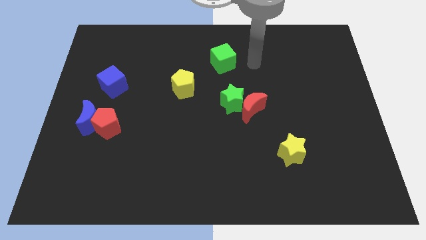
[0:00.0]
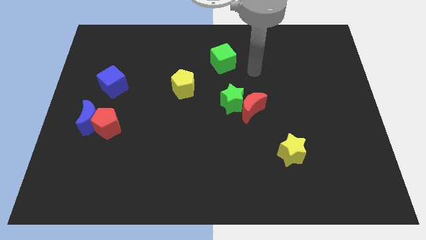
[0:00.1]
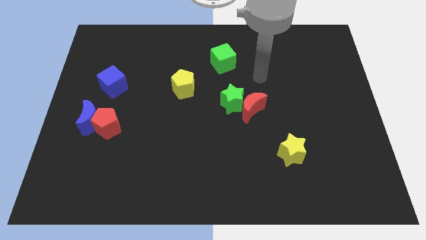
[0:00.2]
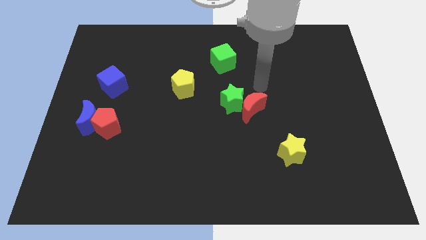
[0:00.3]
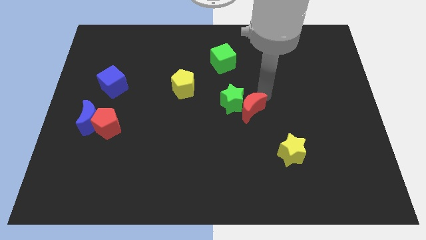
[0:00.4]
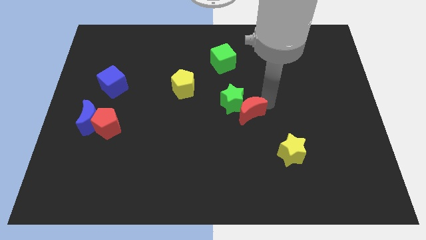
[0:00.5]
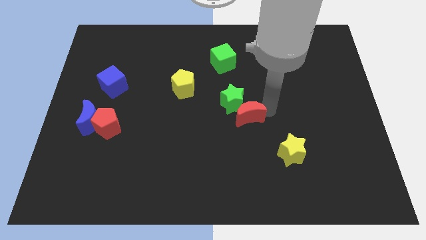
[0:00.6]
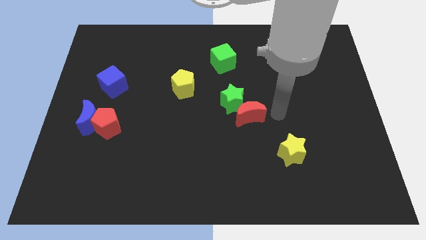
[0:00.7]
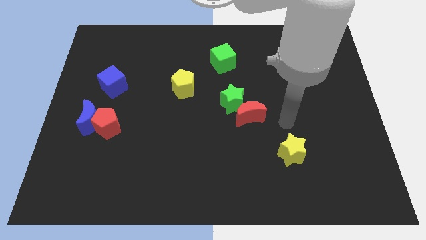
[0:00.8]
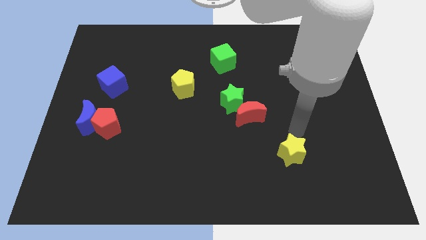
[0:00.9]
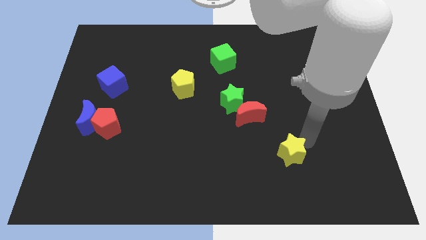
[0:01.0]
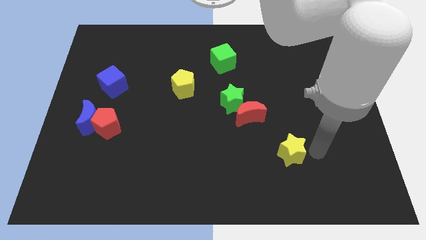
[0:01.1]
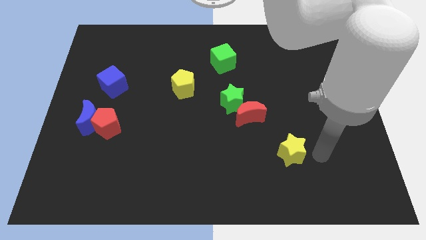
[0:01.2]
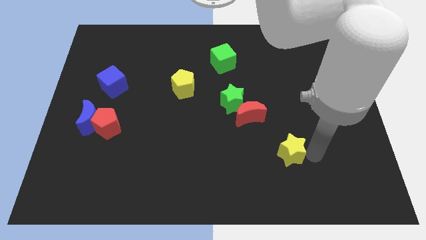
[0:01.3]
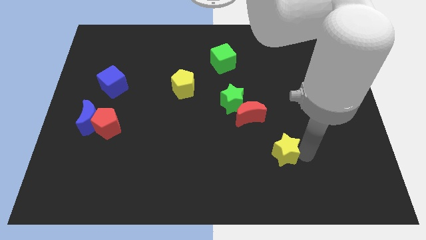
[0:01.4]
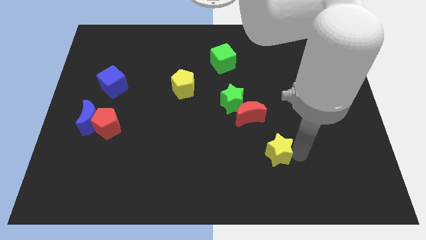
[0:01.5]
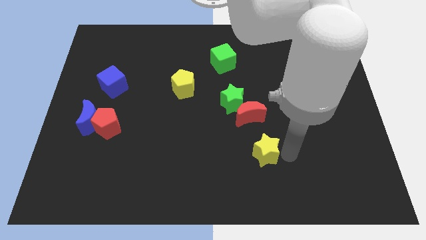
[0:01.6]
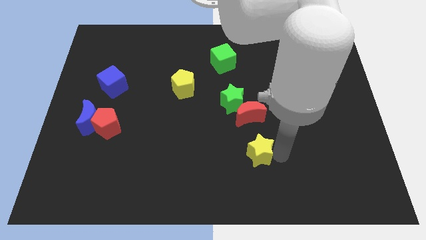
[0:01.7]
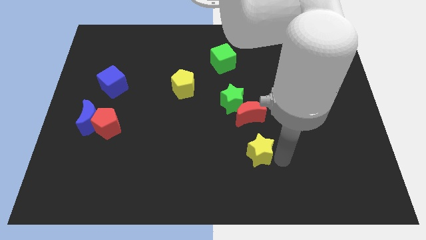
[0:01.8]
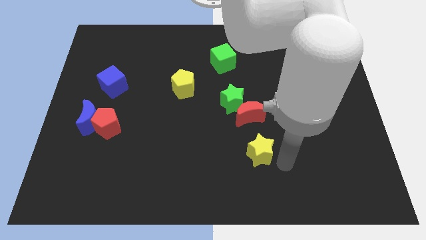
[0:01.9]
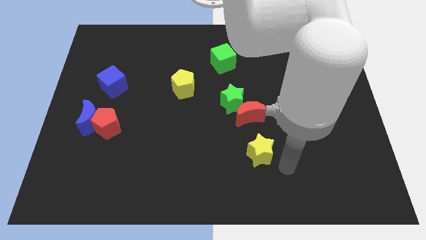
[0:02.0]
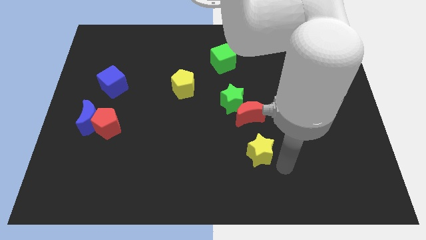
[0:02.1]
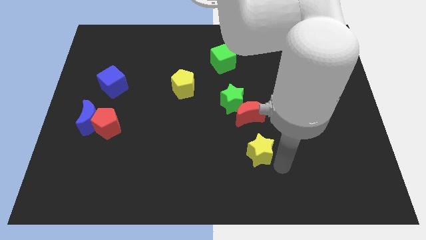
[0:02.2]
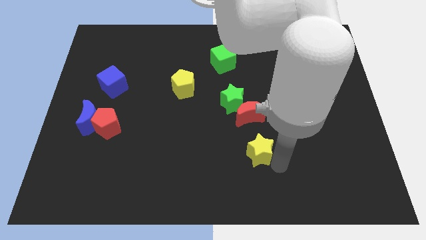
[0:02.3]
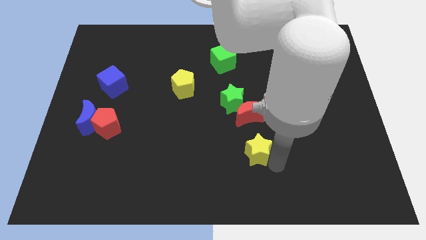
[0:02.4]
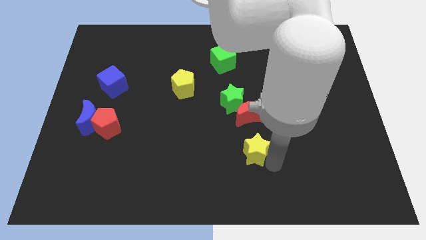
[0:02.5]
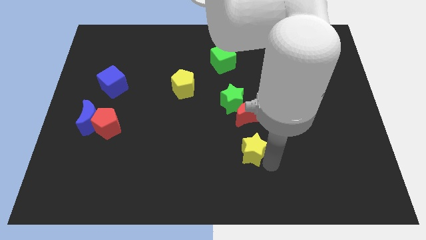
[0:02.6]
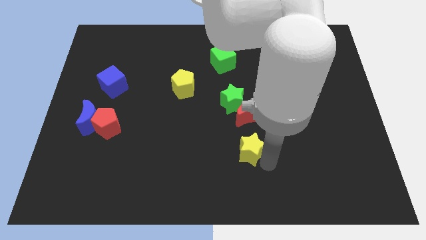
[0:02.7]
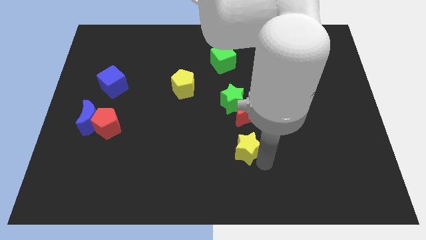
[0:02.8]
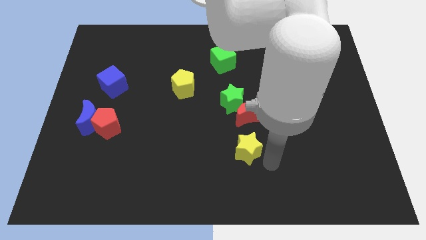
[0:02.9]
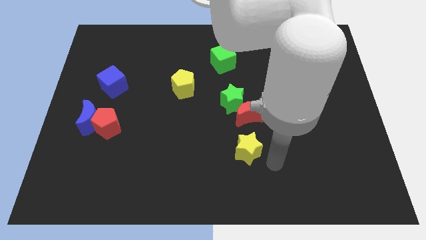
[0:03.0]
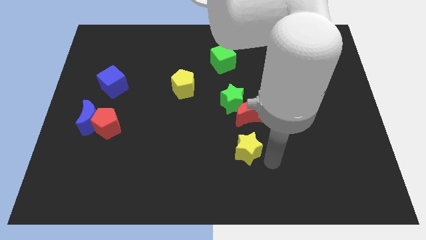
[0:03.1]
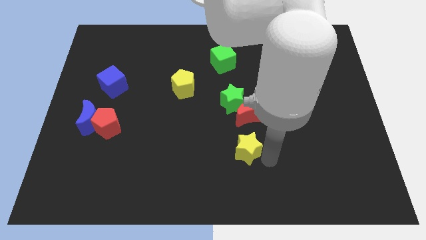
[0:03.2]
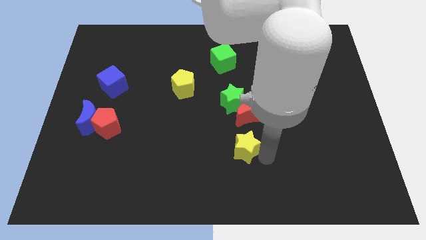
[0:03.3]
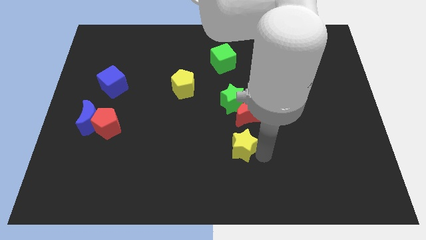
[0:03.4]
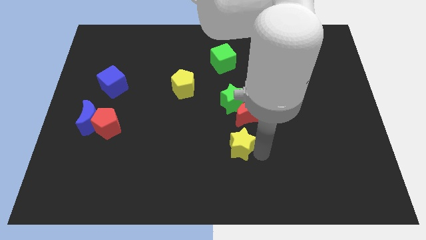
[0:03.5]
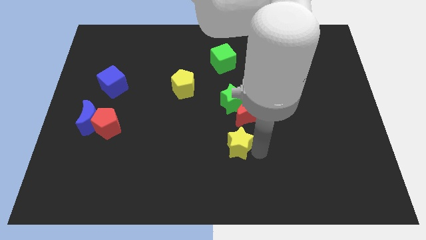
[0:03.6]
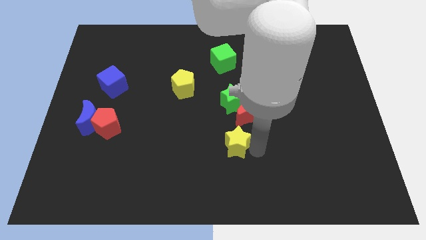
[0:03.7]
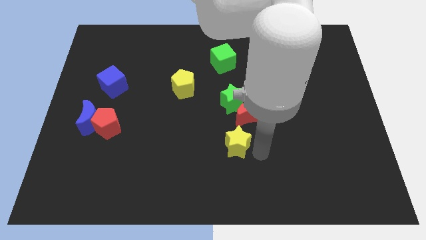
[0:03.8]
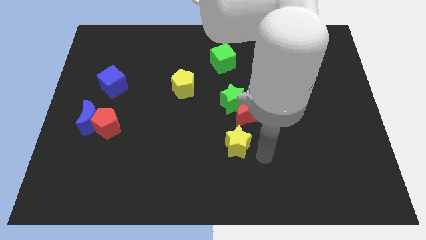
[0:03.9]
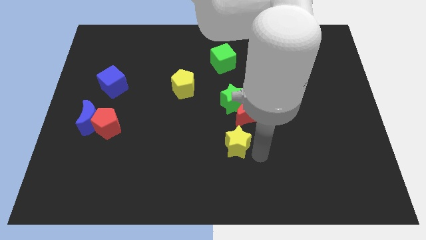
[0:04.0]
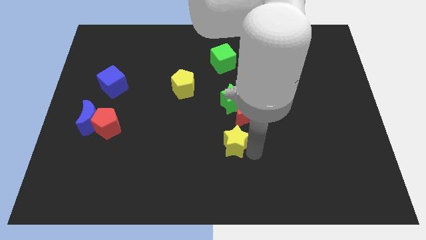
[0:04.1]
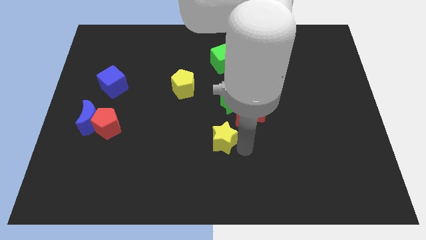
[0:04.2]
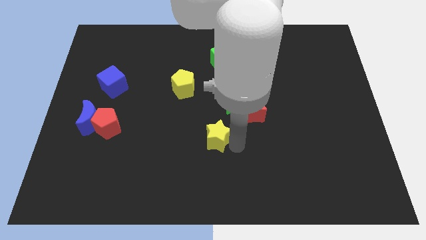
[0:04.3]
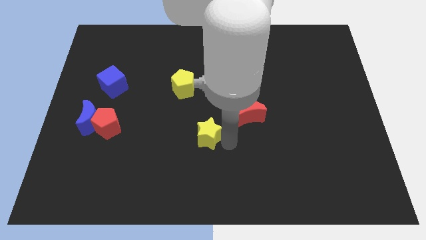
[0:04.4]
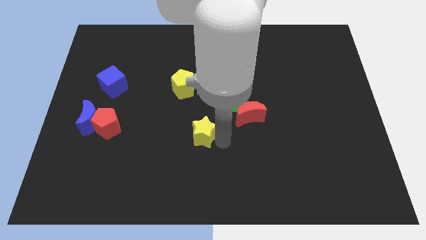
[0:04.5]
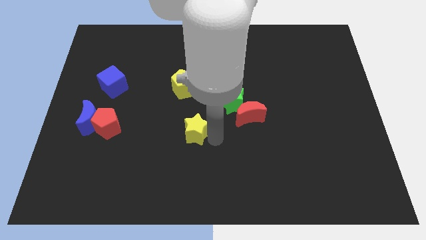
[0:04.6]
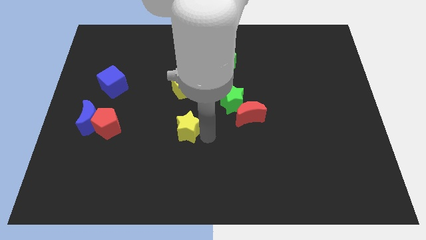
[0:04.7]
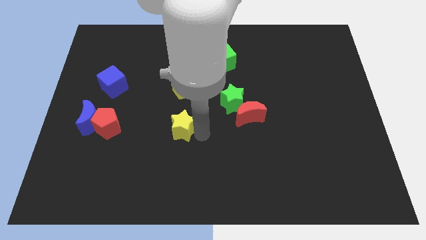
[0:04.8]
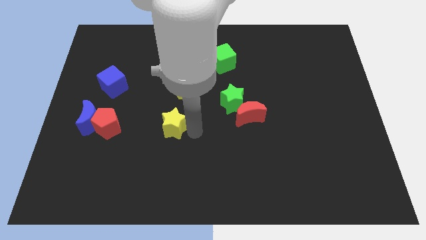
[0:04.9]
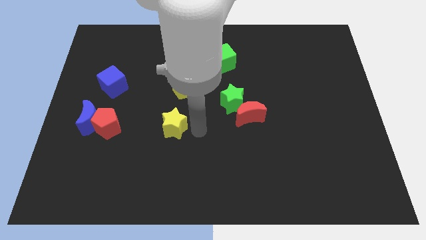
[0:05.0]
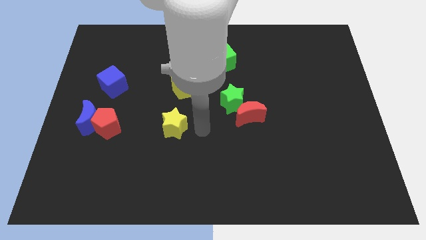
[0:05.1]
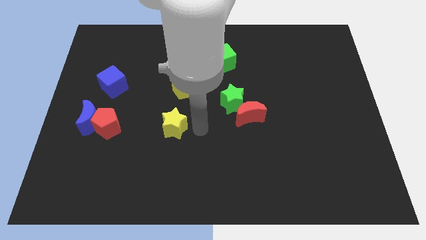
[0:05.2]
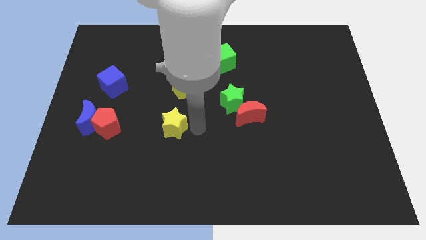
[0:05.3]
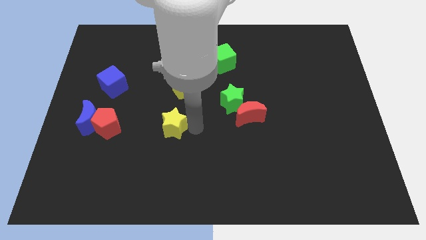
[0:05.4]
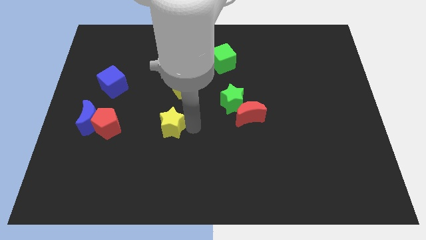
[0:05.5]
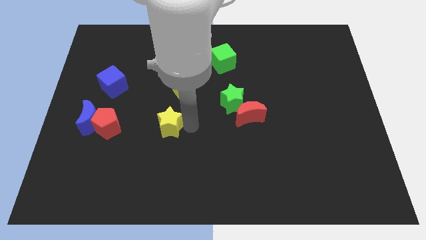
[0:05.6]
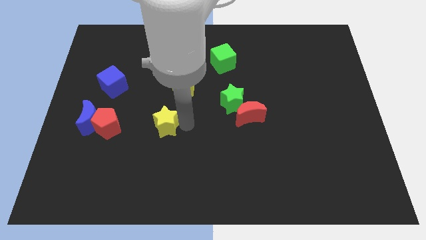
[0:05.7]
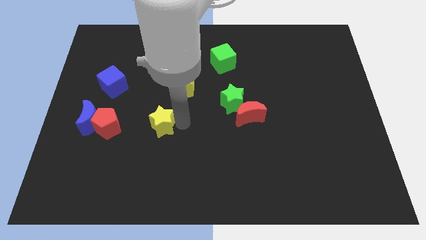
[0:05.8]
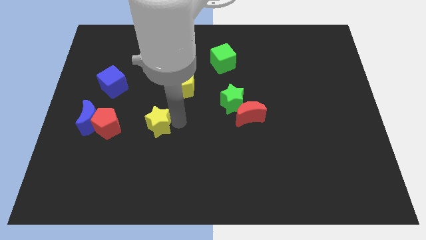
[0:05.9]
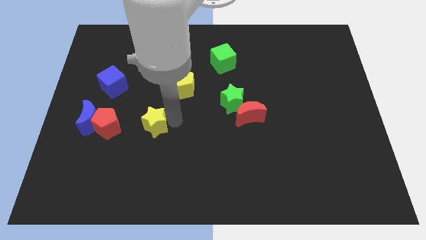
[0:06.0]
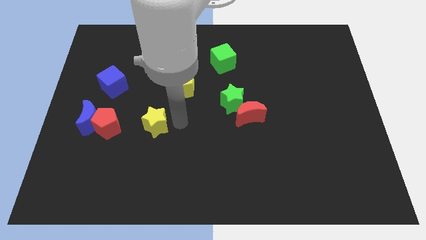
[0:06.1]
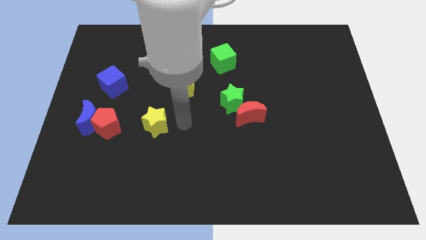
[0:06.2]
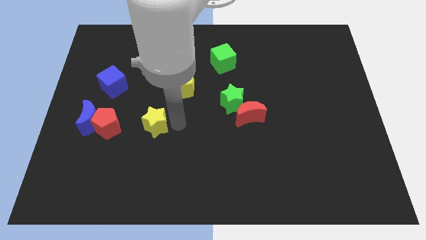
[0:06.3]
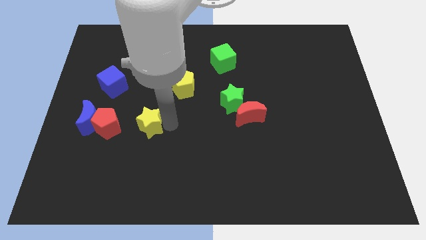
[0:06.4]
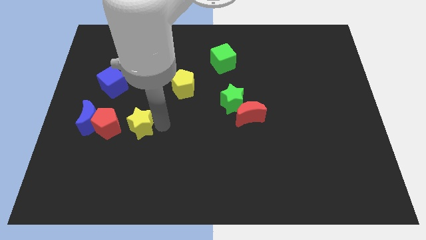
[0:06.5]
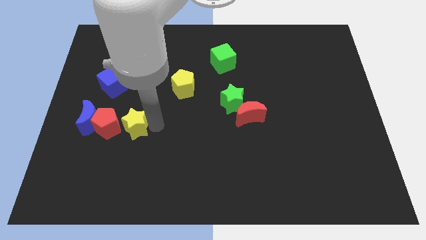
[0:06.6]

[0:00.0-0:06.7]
slide the yellow star close to the red pentagon
